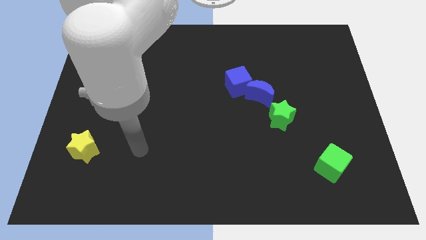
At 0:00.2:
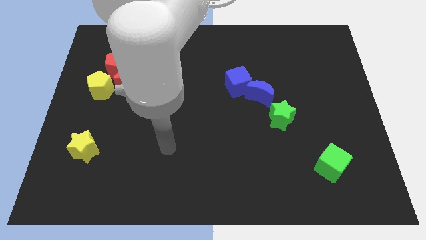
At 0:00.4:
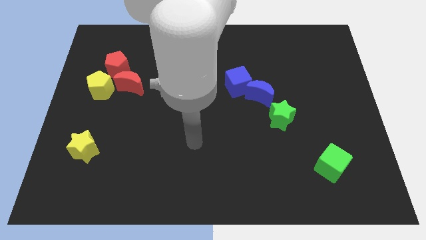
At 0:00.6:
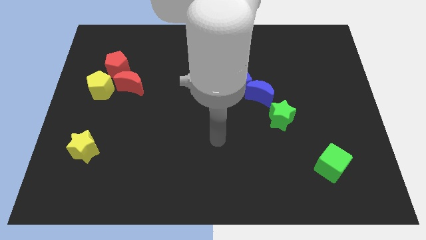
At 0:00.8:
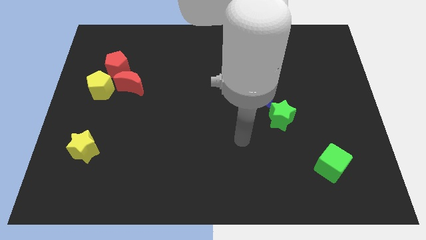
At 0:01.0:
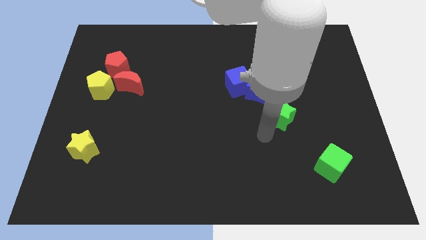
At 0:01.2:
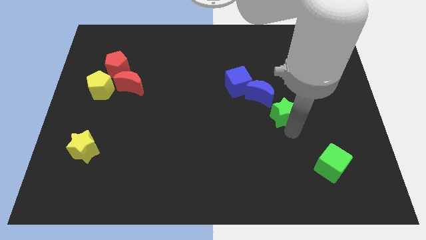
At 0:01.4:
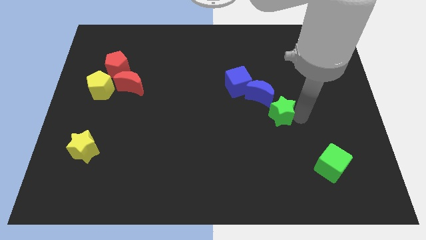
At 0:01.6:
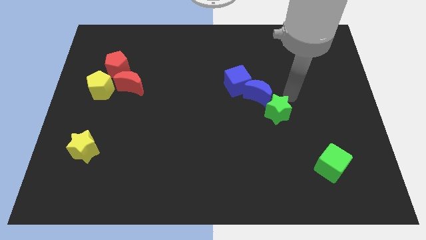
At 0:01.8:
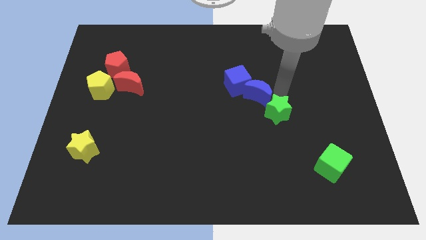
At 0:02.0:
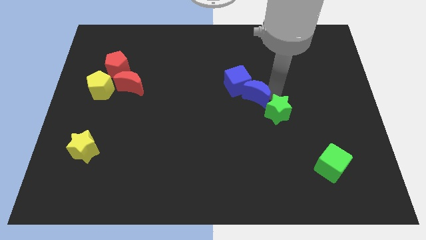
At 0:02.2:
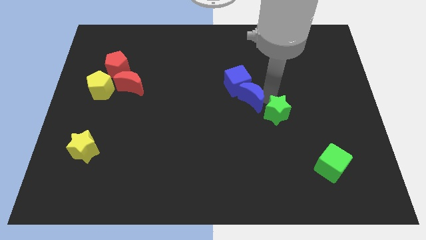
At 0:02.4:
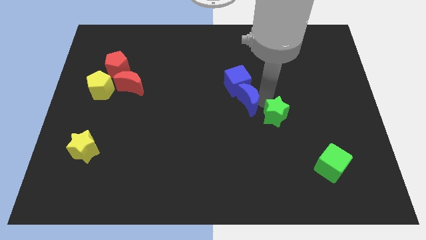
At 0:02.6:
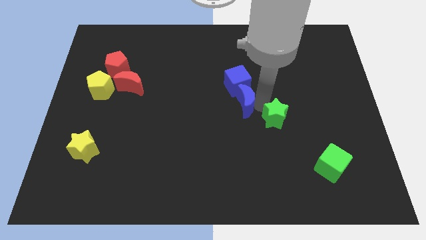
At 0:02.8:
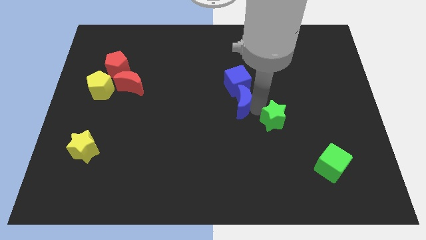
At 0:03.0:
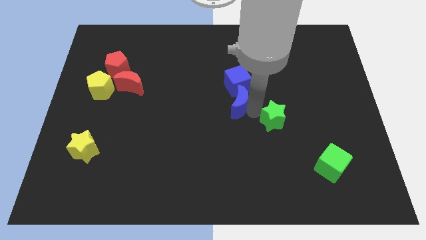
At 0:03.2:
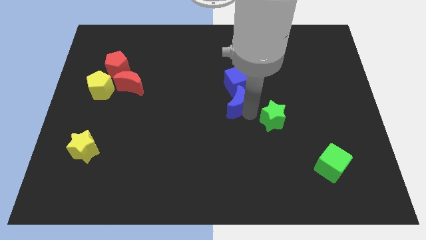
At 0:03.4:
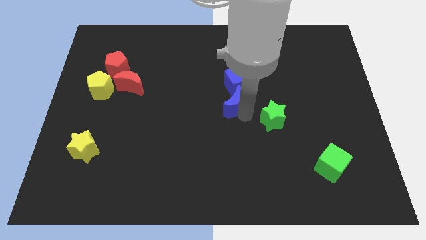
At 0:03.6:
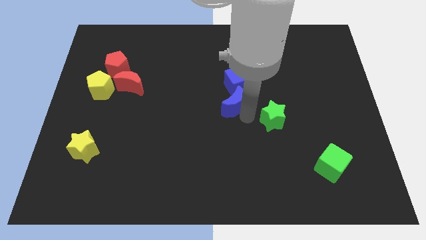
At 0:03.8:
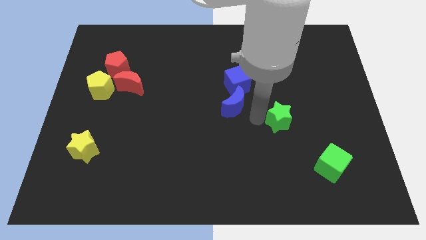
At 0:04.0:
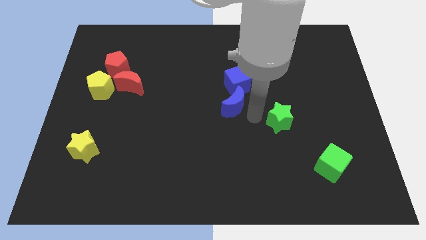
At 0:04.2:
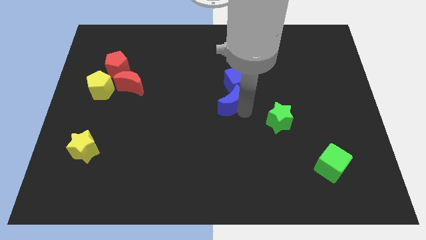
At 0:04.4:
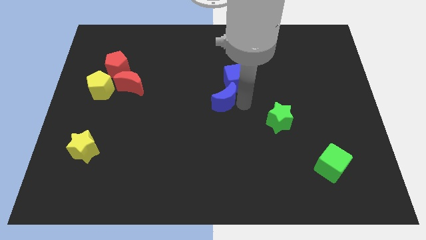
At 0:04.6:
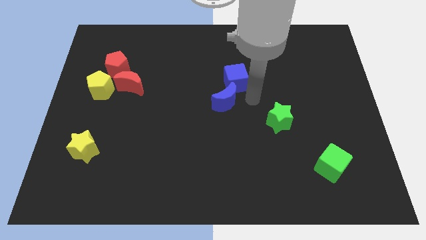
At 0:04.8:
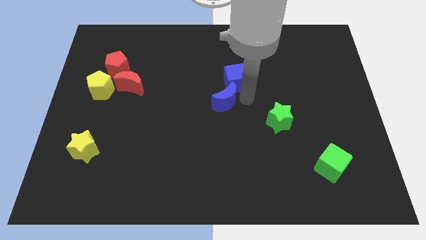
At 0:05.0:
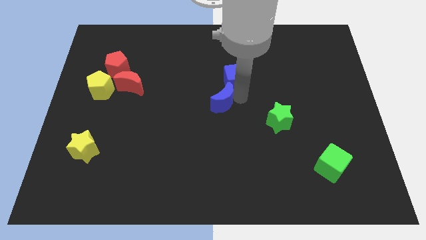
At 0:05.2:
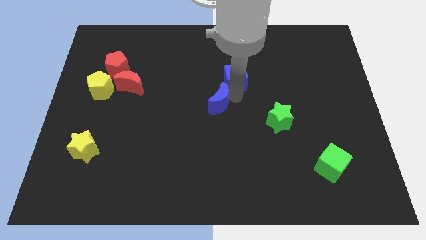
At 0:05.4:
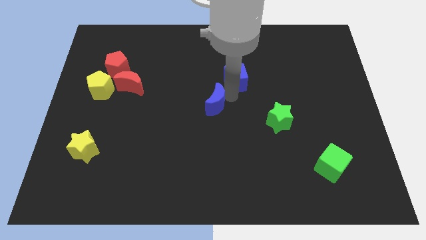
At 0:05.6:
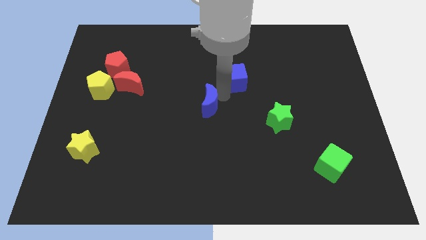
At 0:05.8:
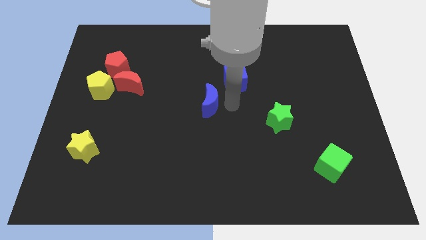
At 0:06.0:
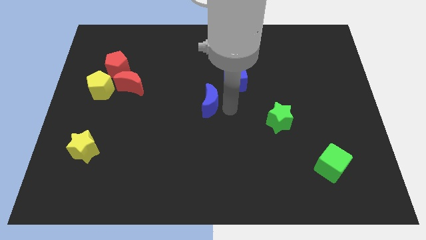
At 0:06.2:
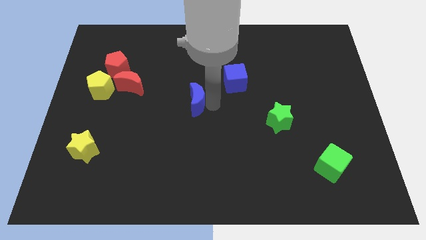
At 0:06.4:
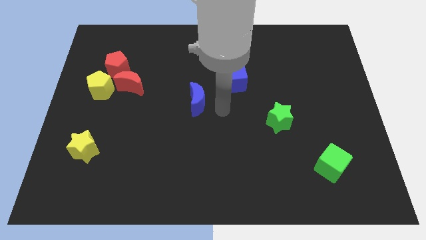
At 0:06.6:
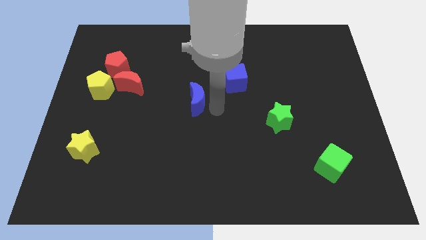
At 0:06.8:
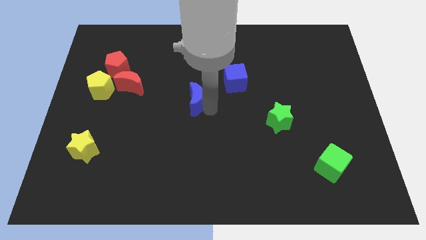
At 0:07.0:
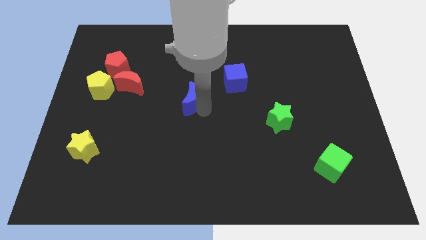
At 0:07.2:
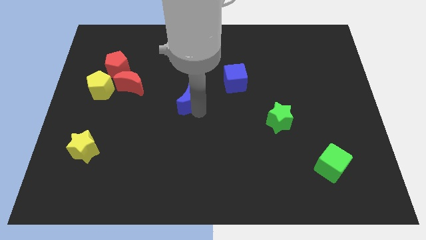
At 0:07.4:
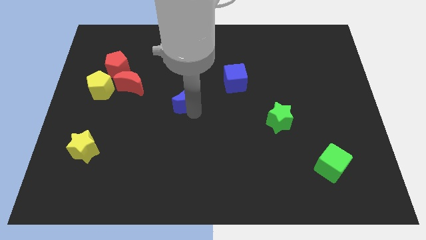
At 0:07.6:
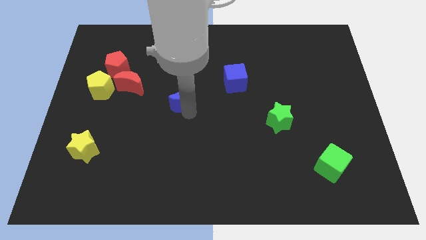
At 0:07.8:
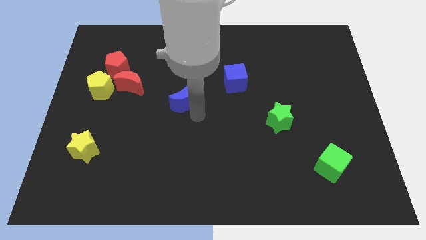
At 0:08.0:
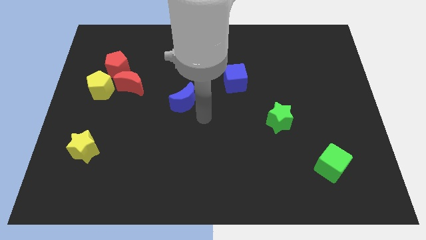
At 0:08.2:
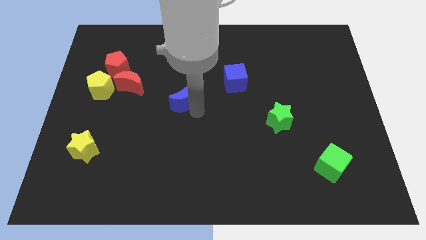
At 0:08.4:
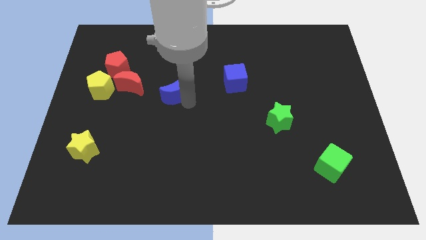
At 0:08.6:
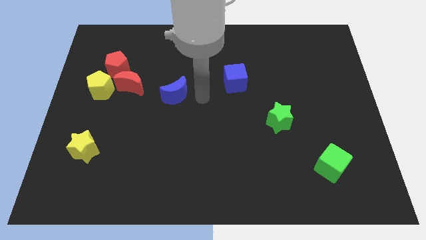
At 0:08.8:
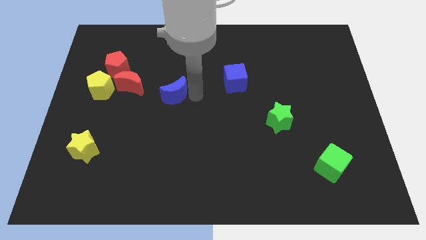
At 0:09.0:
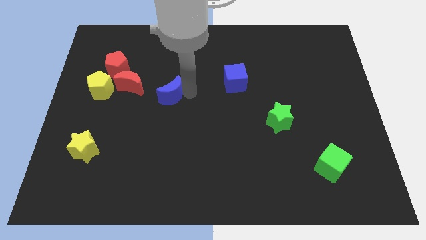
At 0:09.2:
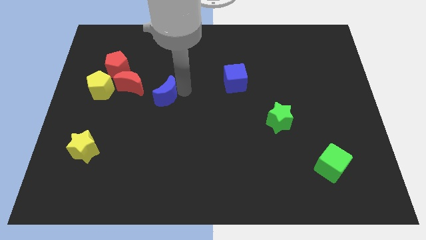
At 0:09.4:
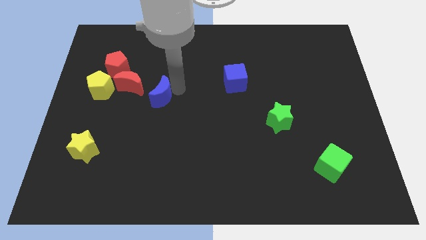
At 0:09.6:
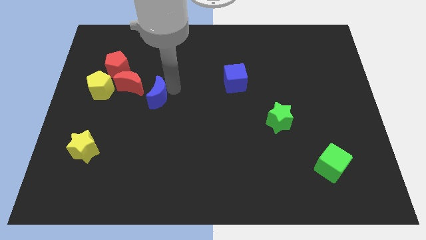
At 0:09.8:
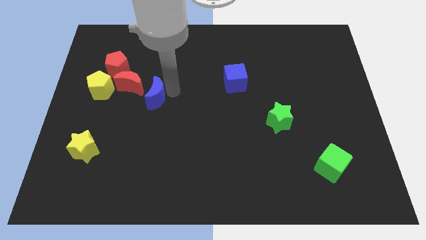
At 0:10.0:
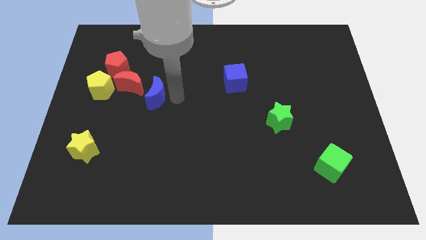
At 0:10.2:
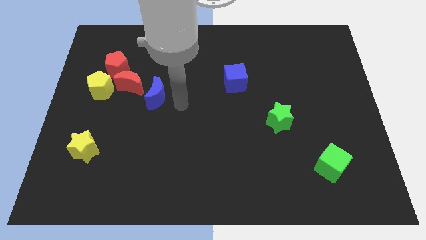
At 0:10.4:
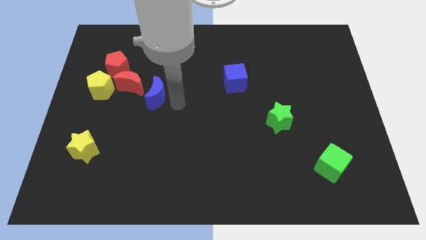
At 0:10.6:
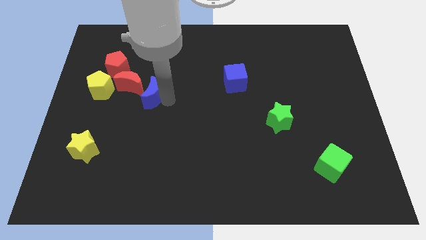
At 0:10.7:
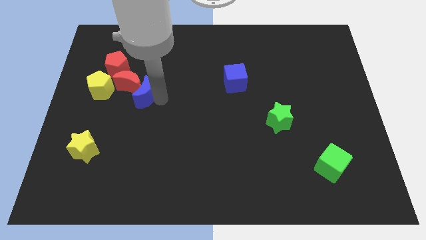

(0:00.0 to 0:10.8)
slide the blue moon to the bottom right of the red pentagon
